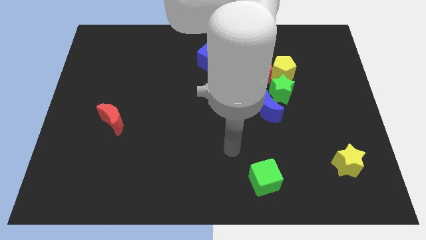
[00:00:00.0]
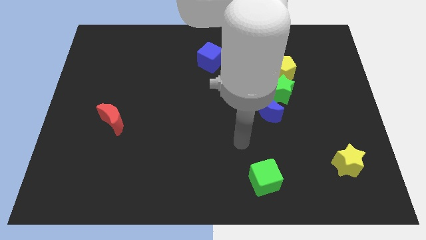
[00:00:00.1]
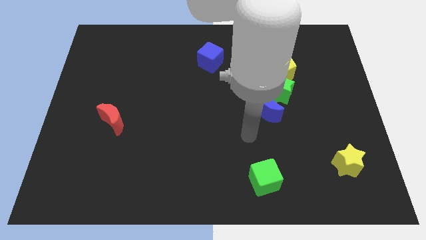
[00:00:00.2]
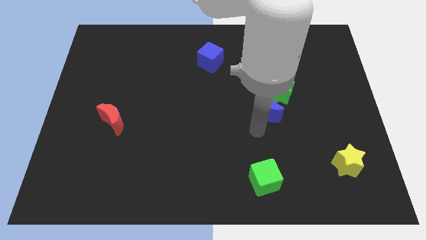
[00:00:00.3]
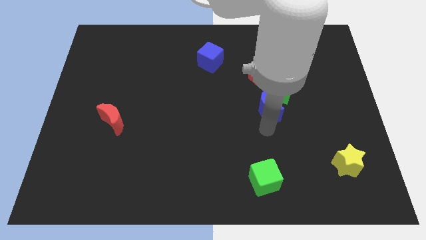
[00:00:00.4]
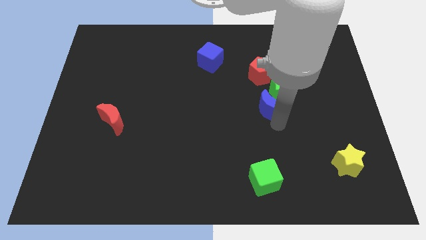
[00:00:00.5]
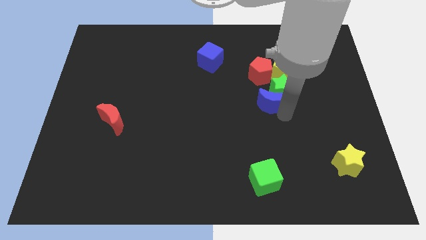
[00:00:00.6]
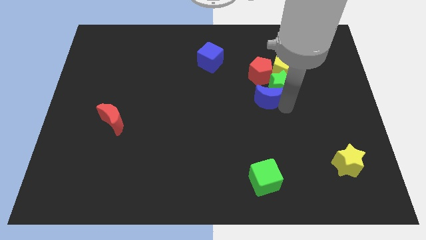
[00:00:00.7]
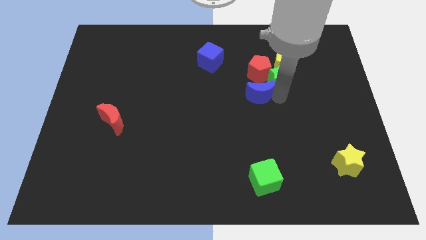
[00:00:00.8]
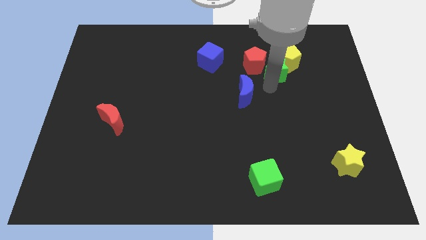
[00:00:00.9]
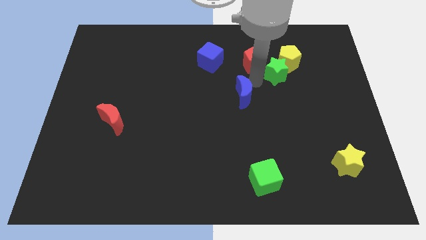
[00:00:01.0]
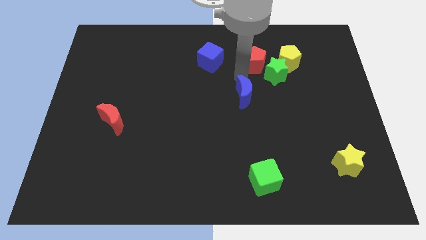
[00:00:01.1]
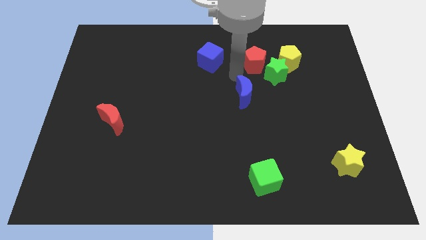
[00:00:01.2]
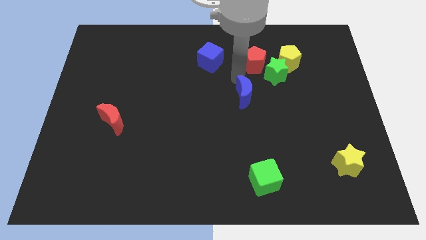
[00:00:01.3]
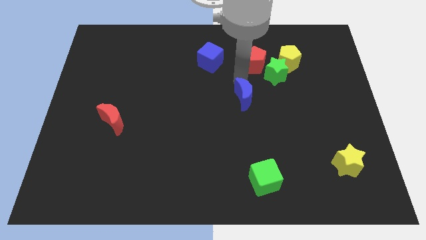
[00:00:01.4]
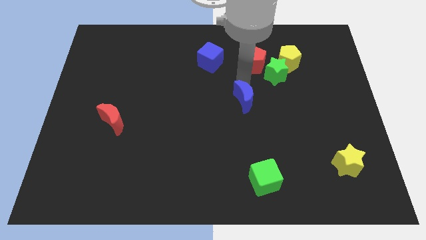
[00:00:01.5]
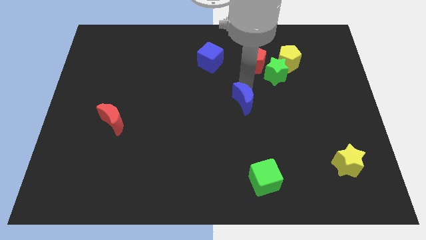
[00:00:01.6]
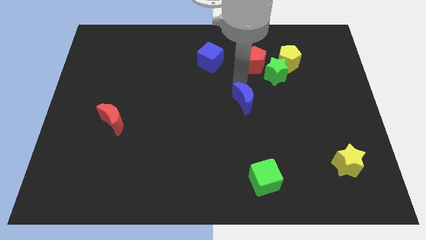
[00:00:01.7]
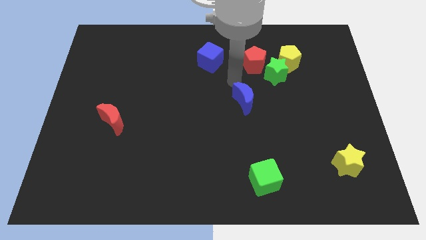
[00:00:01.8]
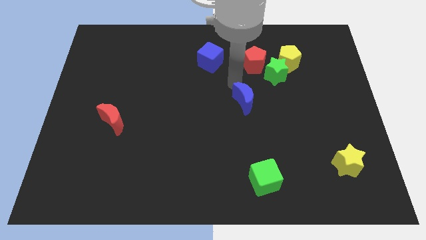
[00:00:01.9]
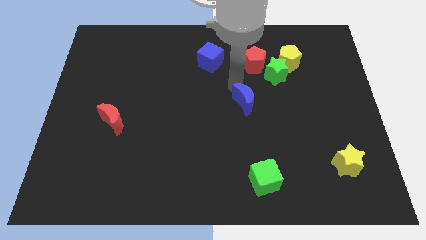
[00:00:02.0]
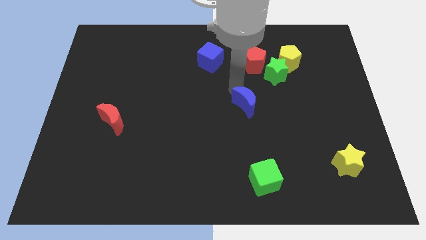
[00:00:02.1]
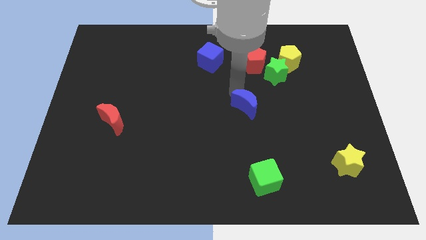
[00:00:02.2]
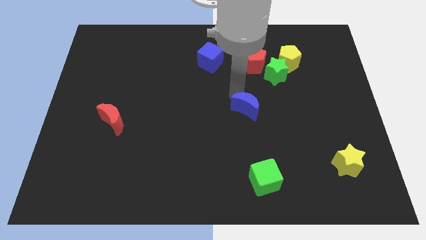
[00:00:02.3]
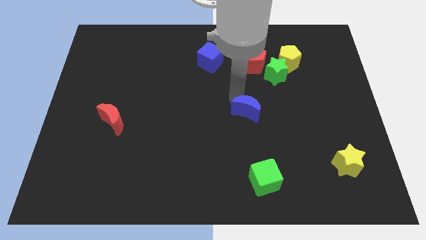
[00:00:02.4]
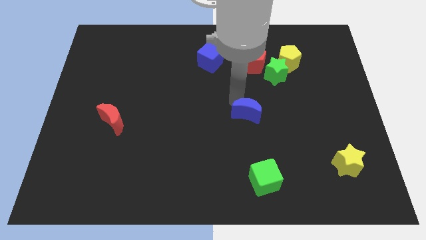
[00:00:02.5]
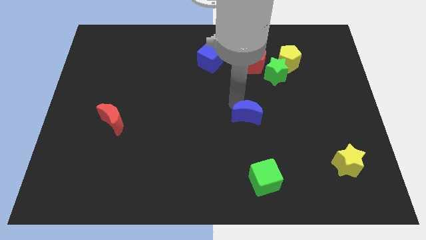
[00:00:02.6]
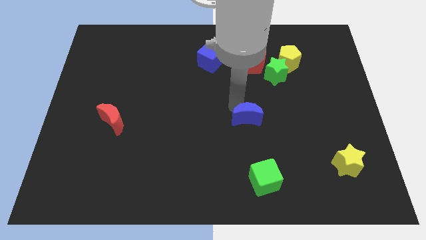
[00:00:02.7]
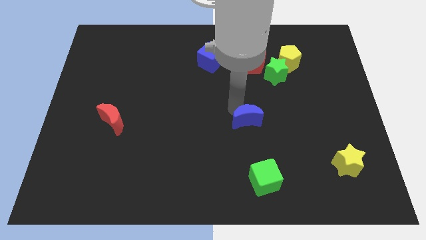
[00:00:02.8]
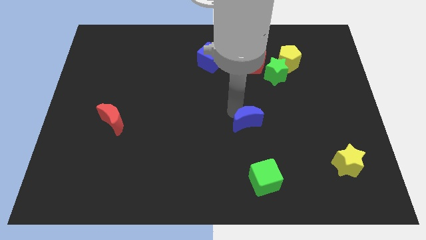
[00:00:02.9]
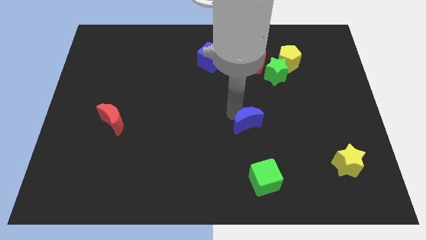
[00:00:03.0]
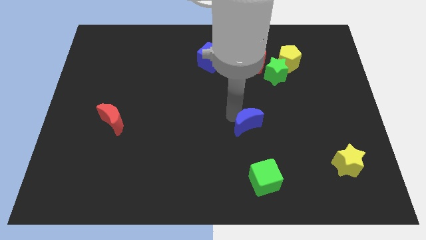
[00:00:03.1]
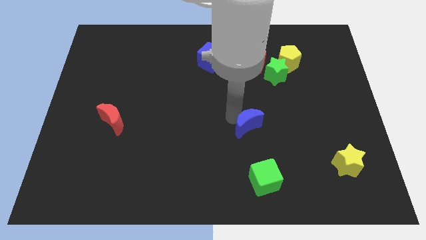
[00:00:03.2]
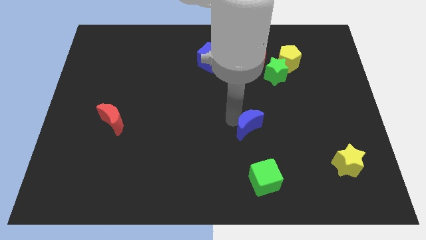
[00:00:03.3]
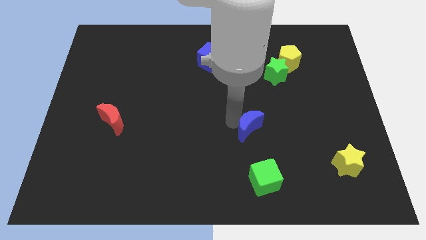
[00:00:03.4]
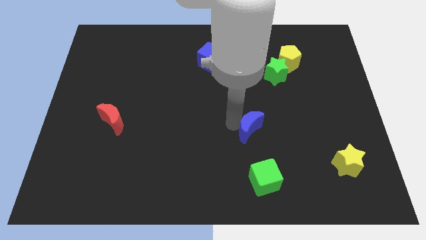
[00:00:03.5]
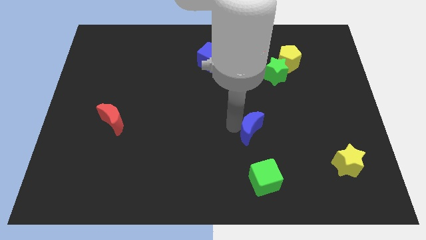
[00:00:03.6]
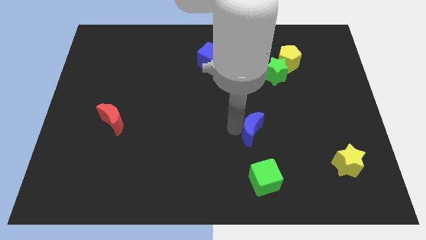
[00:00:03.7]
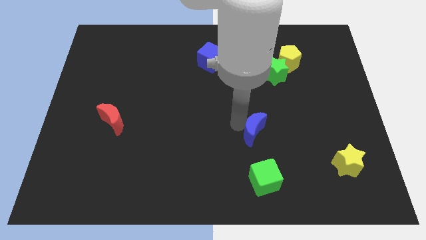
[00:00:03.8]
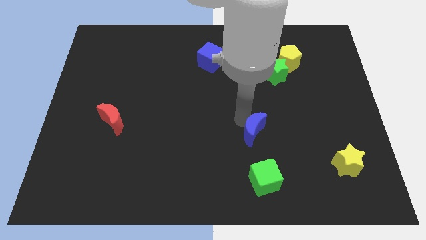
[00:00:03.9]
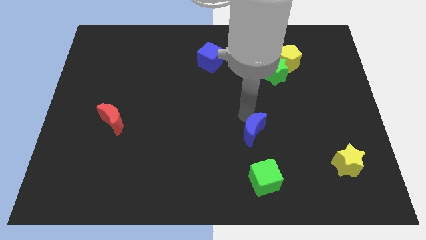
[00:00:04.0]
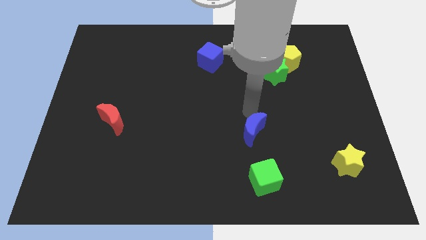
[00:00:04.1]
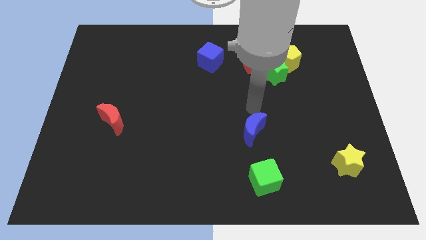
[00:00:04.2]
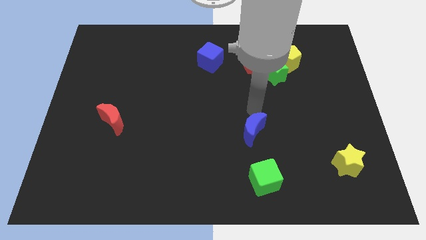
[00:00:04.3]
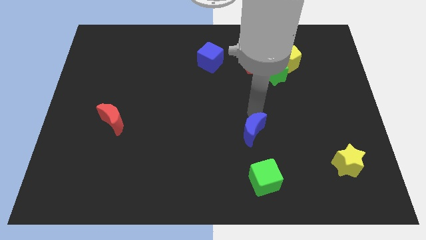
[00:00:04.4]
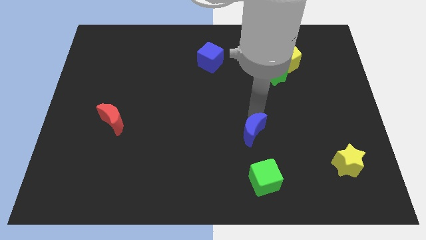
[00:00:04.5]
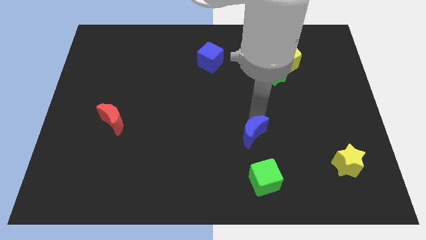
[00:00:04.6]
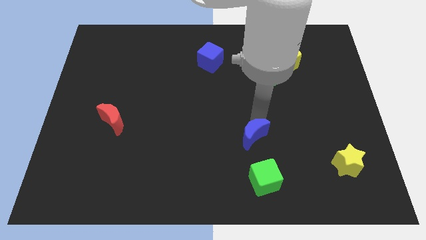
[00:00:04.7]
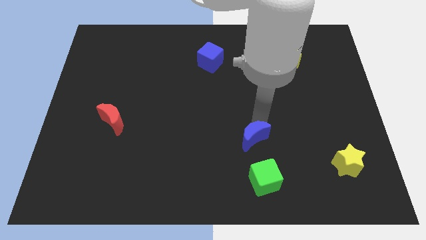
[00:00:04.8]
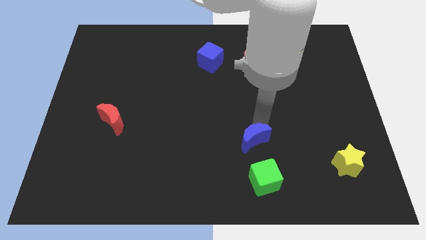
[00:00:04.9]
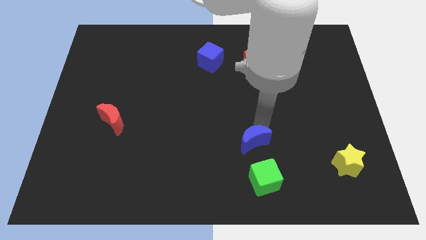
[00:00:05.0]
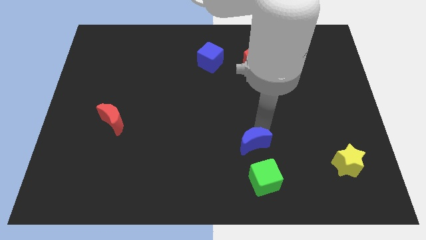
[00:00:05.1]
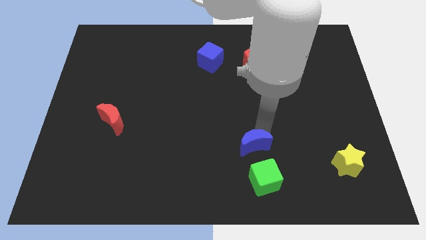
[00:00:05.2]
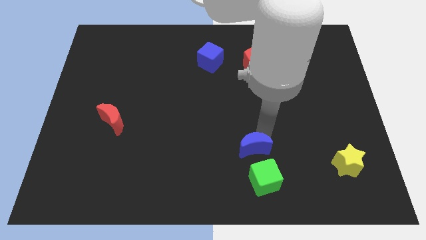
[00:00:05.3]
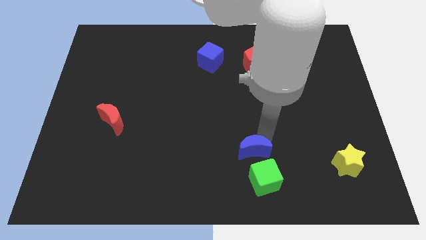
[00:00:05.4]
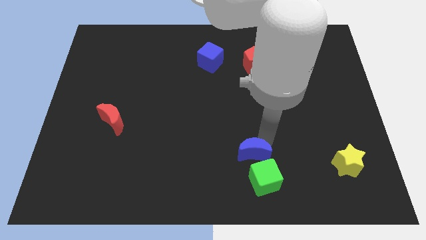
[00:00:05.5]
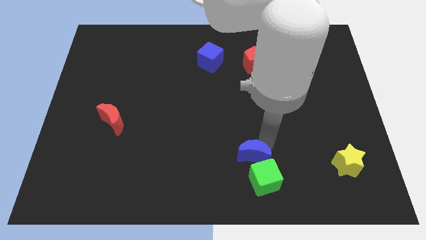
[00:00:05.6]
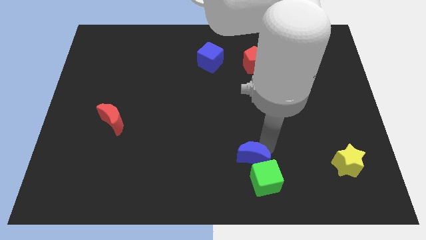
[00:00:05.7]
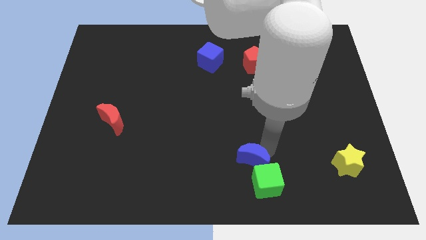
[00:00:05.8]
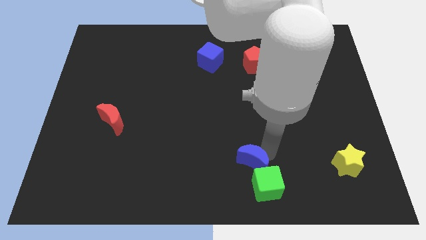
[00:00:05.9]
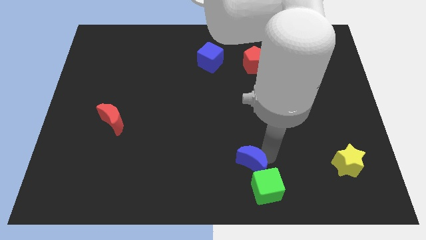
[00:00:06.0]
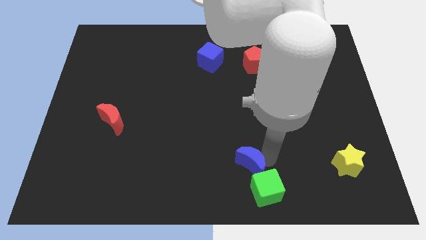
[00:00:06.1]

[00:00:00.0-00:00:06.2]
slide the blue moon to the bottom side

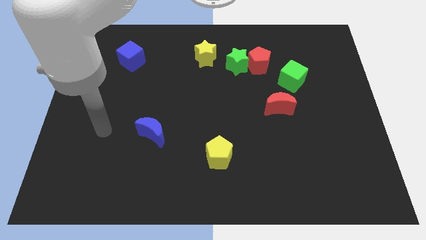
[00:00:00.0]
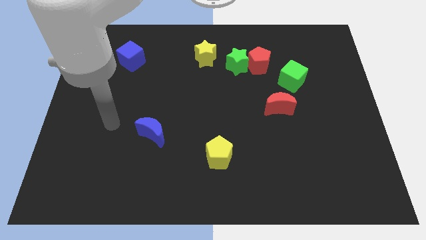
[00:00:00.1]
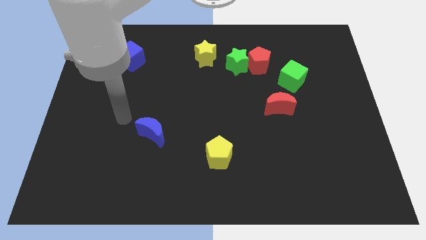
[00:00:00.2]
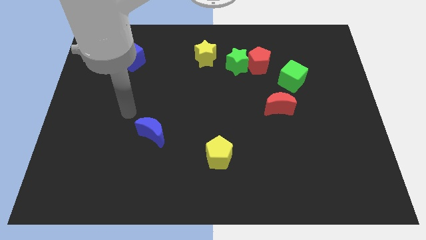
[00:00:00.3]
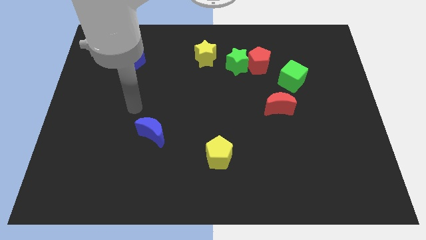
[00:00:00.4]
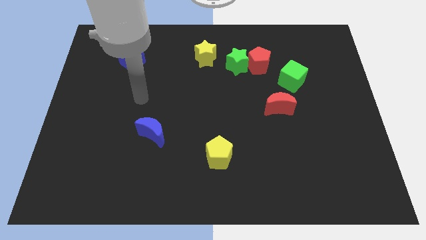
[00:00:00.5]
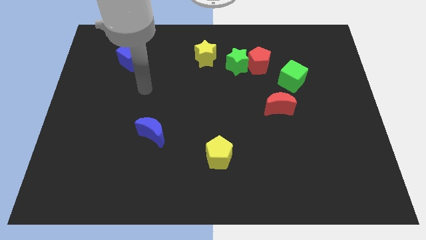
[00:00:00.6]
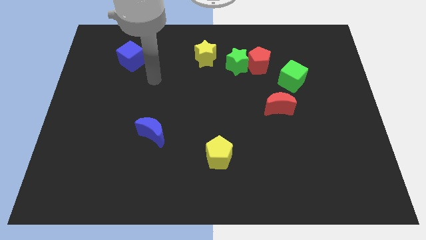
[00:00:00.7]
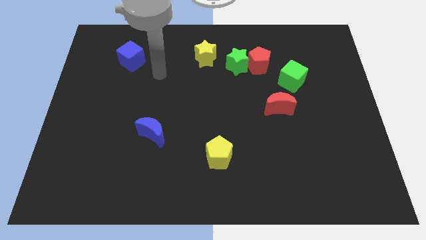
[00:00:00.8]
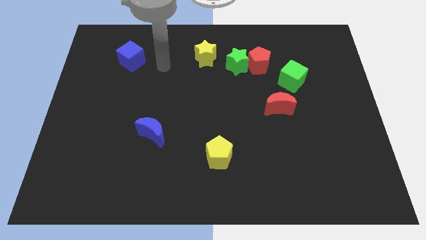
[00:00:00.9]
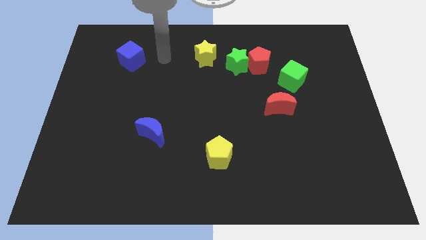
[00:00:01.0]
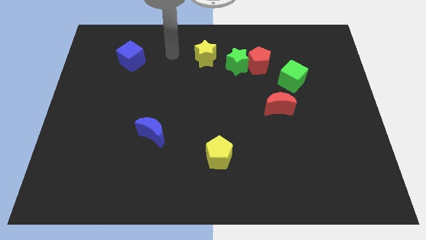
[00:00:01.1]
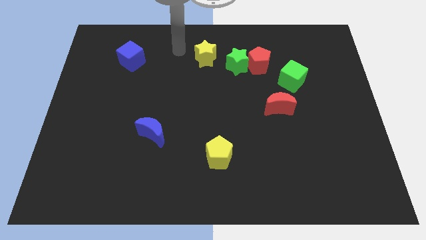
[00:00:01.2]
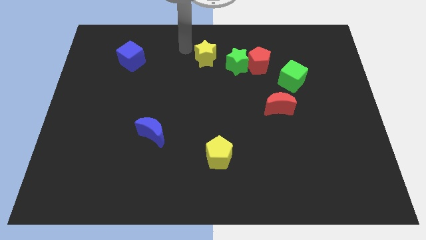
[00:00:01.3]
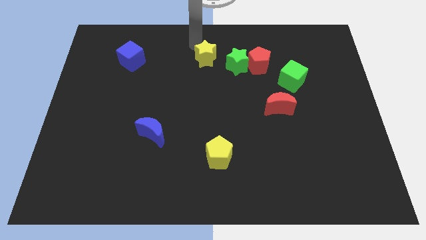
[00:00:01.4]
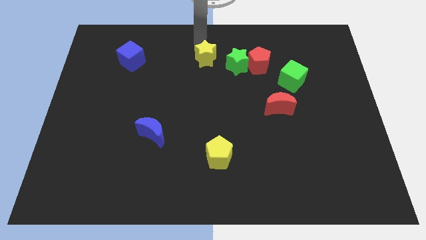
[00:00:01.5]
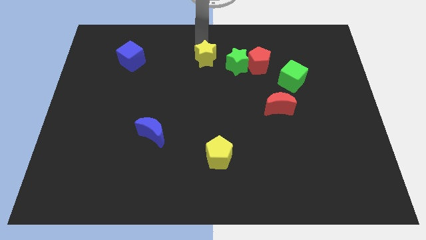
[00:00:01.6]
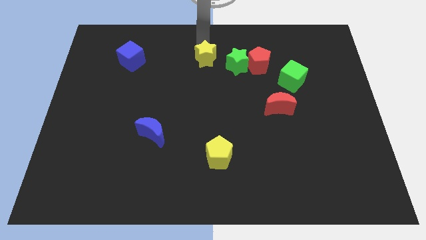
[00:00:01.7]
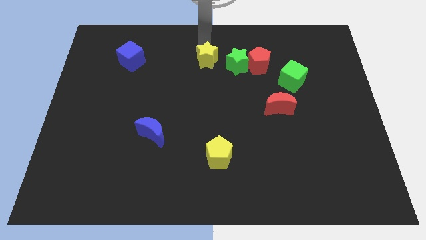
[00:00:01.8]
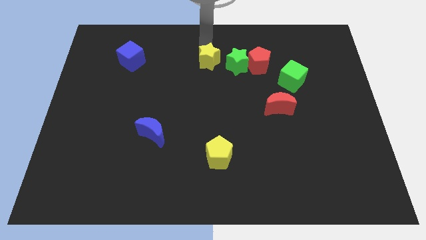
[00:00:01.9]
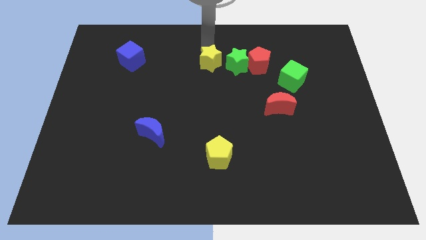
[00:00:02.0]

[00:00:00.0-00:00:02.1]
put the yellow star to the middle
